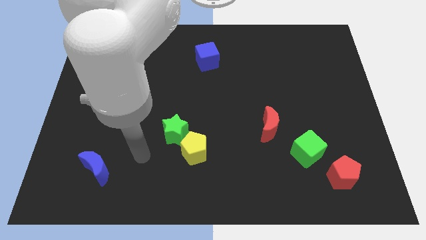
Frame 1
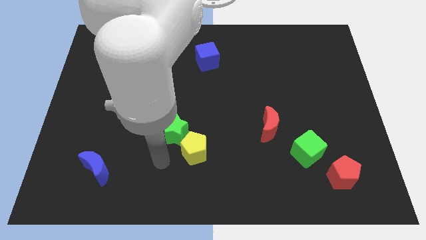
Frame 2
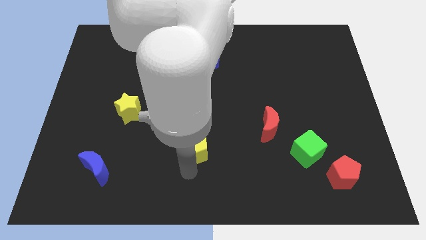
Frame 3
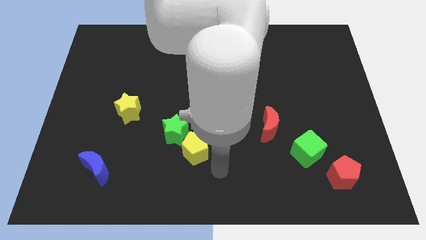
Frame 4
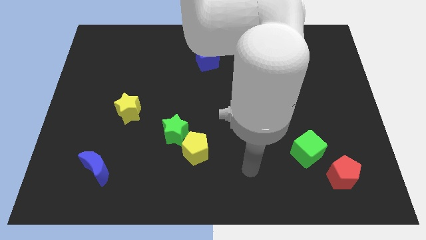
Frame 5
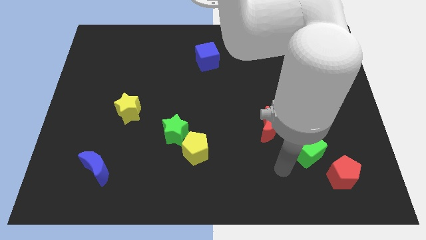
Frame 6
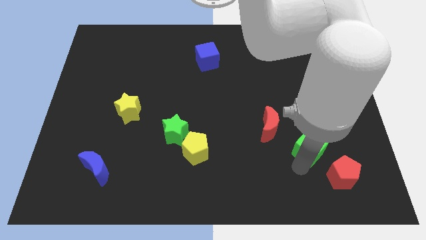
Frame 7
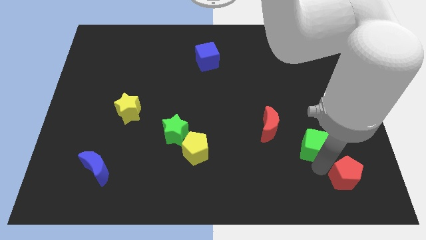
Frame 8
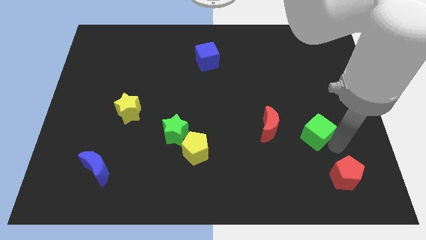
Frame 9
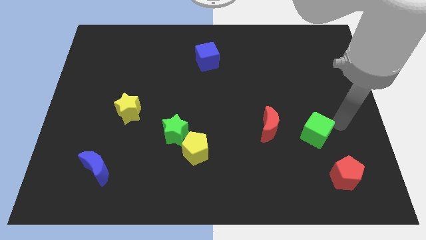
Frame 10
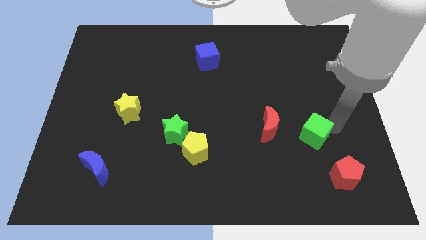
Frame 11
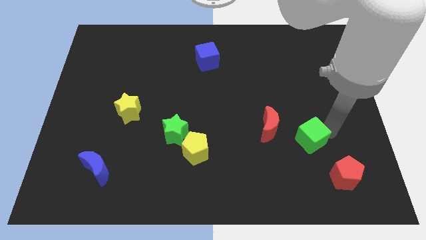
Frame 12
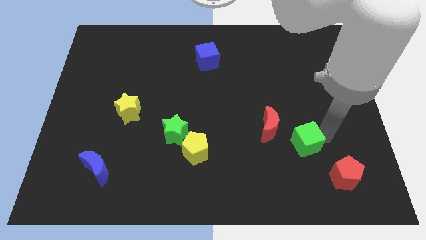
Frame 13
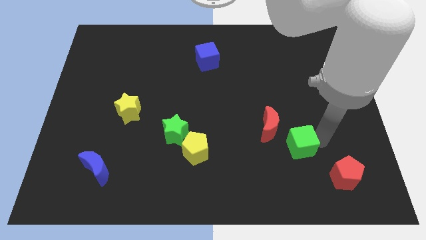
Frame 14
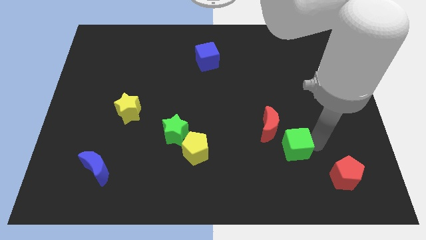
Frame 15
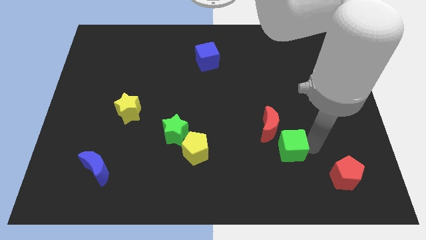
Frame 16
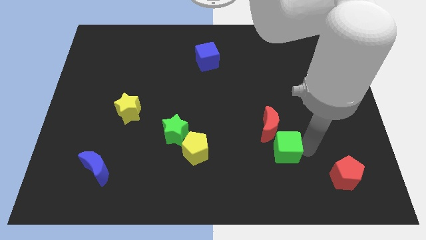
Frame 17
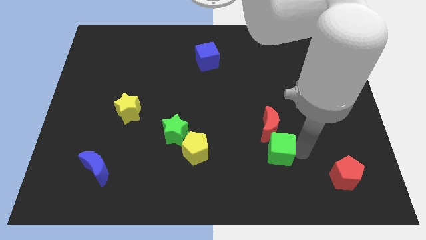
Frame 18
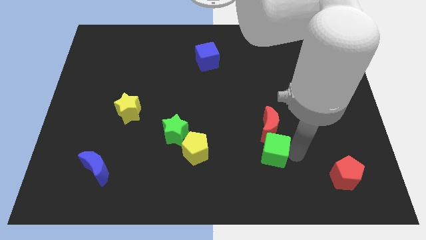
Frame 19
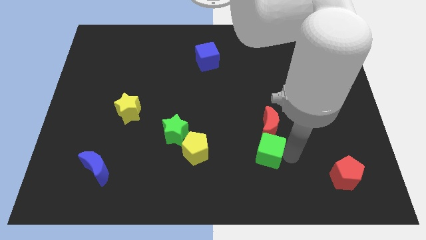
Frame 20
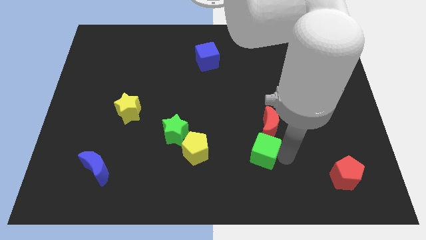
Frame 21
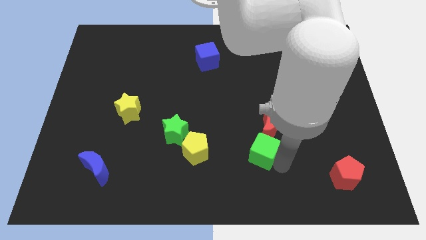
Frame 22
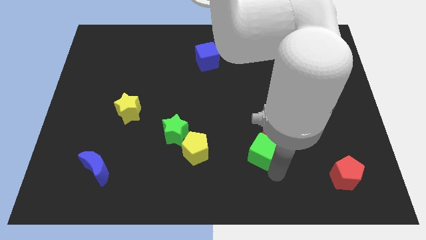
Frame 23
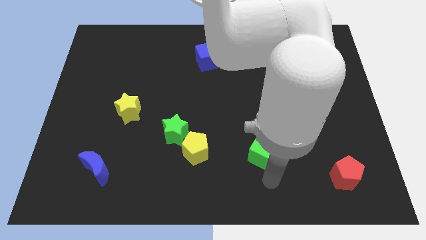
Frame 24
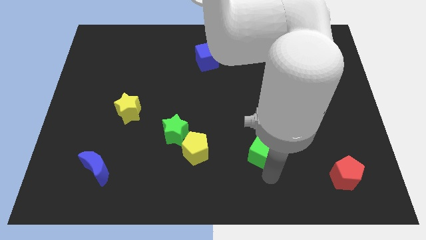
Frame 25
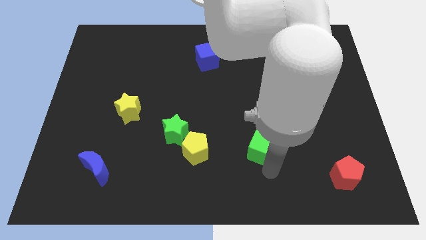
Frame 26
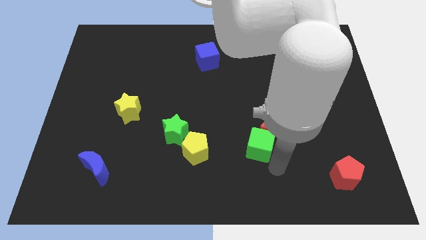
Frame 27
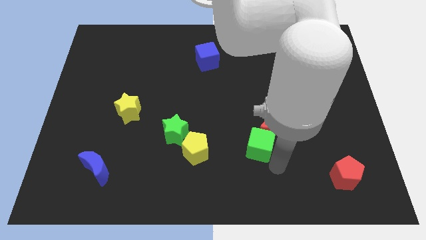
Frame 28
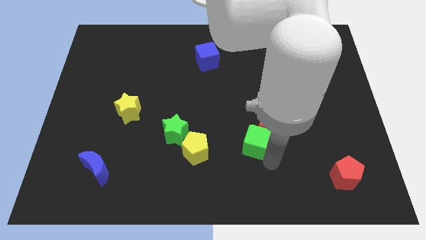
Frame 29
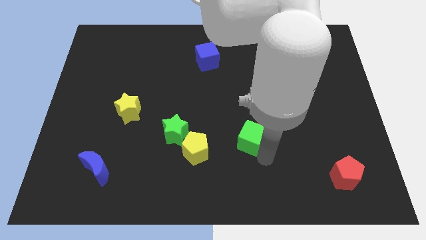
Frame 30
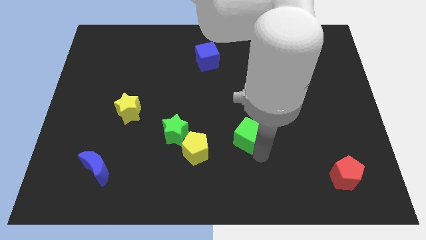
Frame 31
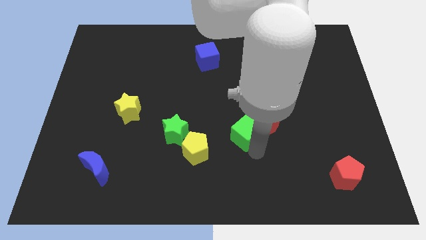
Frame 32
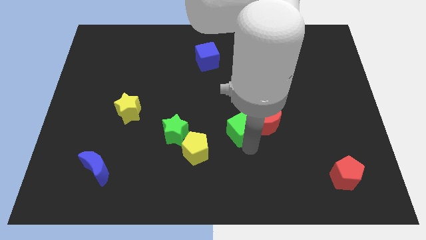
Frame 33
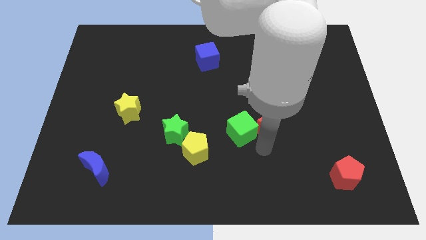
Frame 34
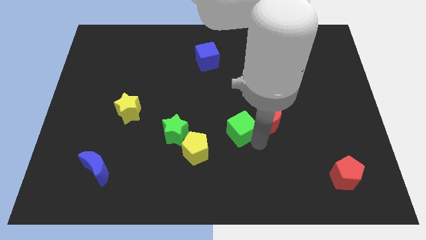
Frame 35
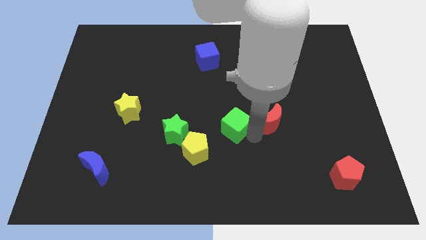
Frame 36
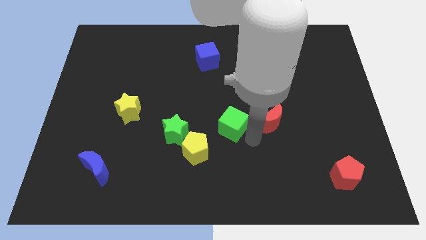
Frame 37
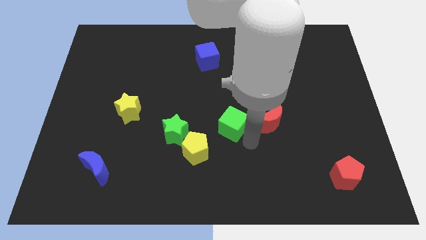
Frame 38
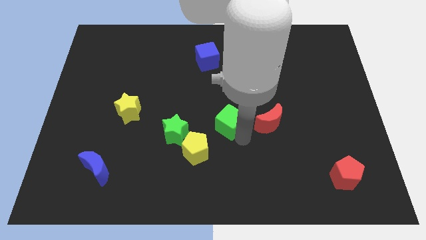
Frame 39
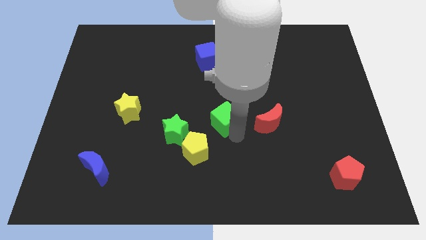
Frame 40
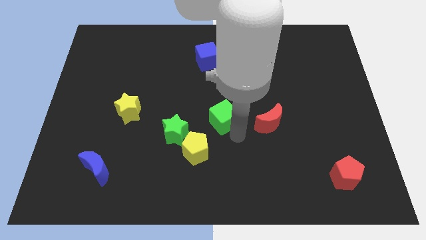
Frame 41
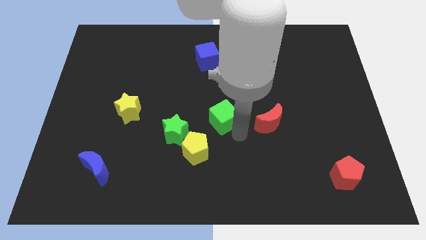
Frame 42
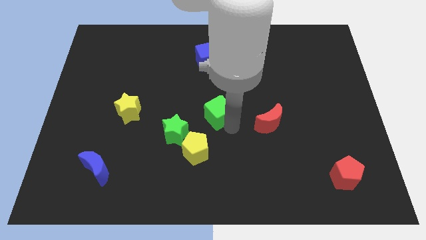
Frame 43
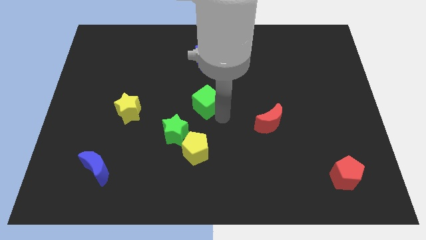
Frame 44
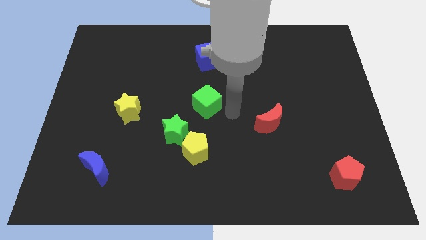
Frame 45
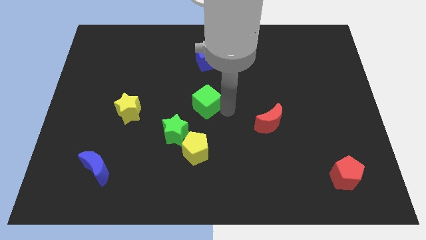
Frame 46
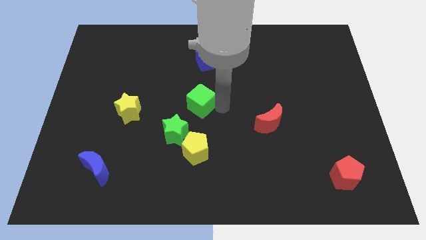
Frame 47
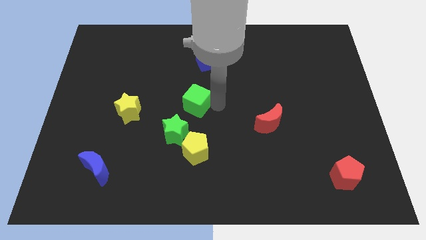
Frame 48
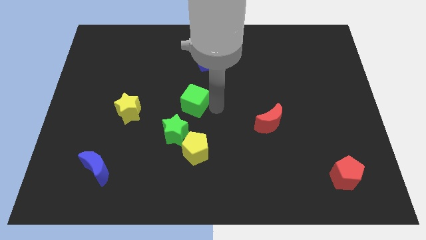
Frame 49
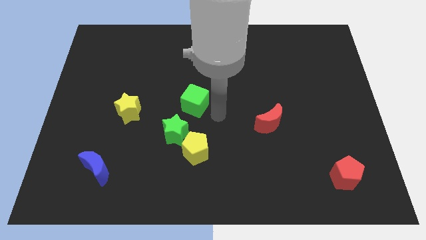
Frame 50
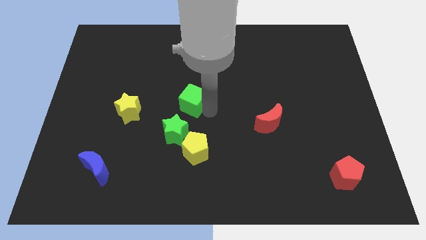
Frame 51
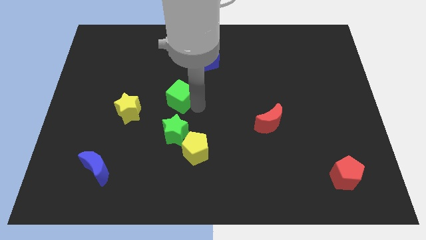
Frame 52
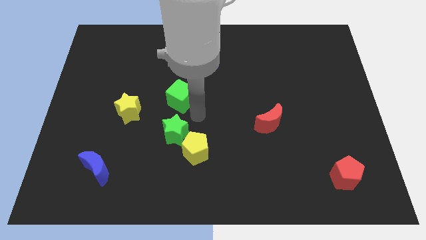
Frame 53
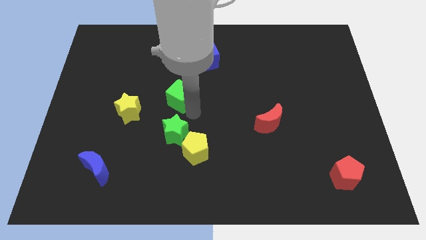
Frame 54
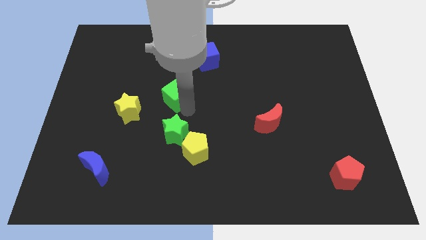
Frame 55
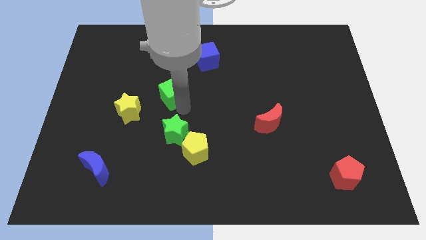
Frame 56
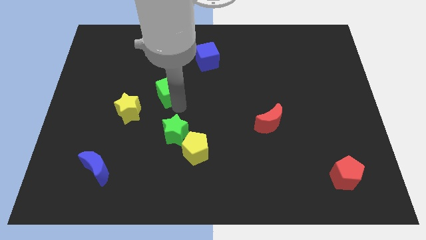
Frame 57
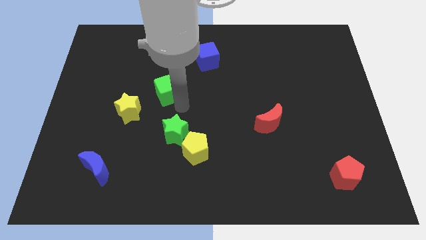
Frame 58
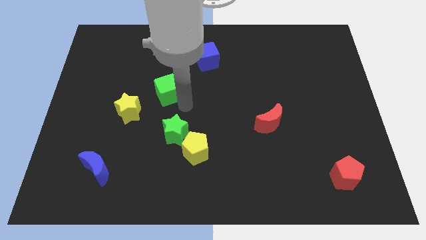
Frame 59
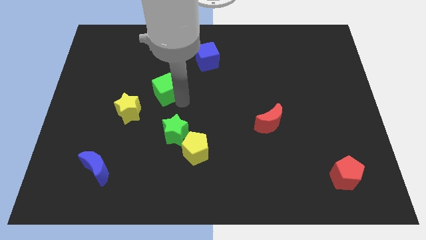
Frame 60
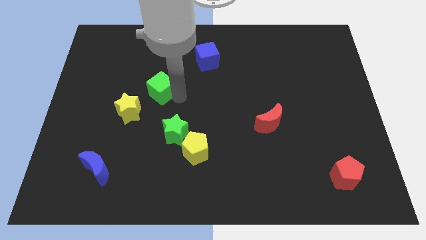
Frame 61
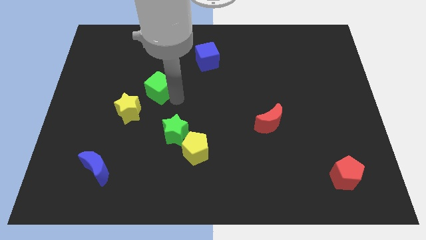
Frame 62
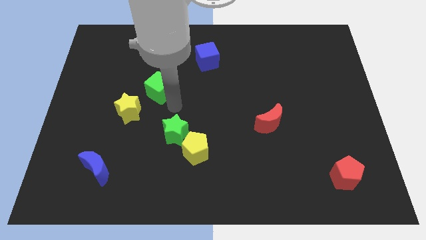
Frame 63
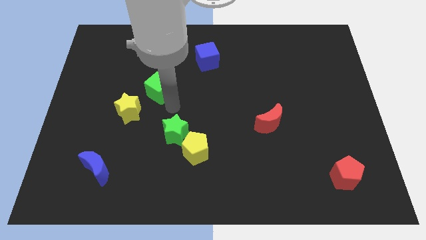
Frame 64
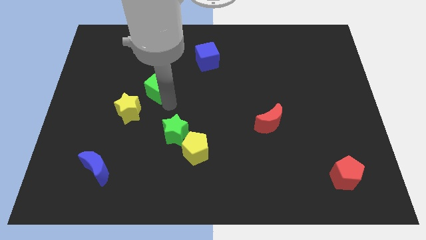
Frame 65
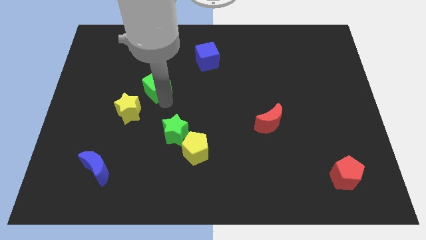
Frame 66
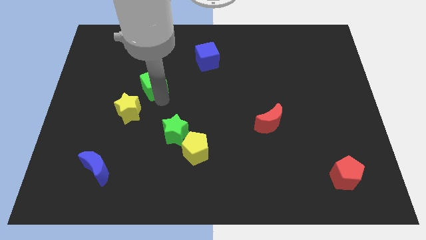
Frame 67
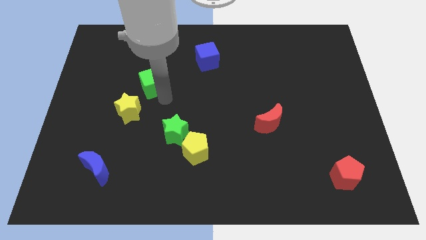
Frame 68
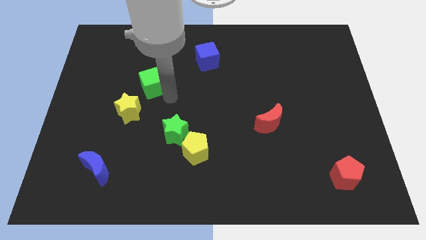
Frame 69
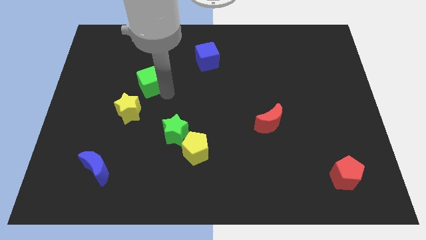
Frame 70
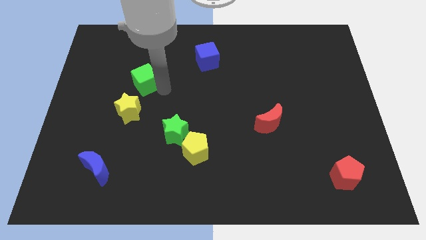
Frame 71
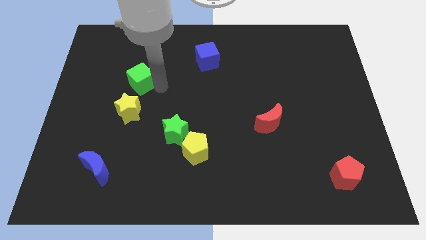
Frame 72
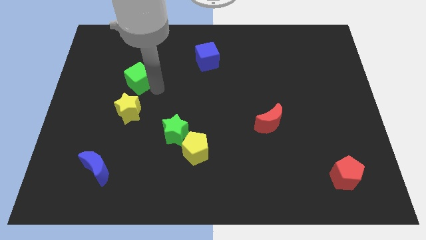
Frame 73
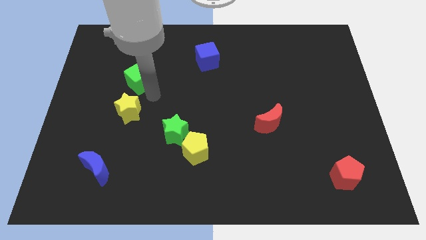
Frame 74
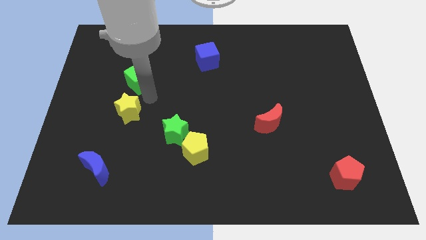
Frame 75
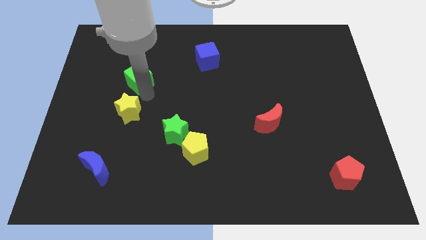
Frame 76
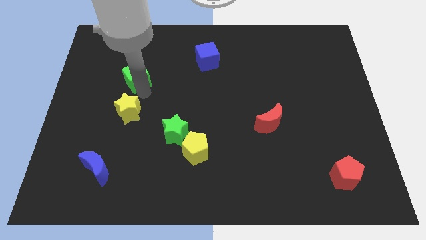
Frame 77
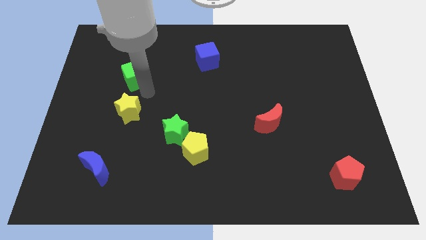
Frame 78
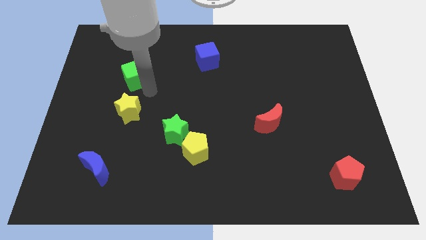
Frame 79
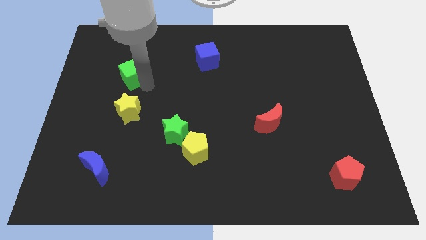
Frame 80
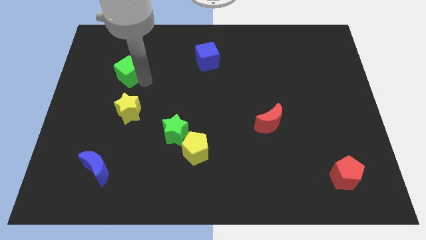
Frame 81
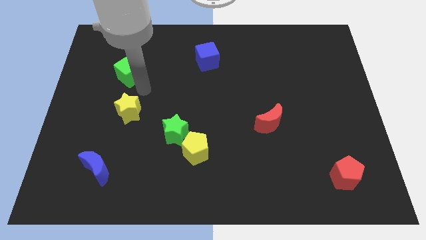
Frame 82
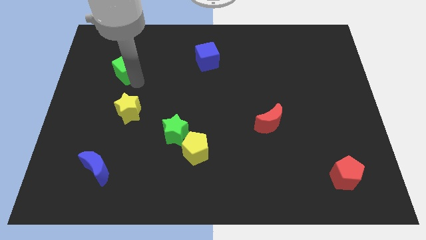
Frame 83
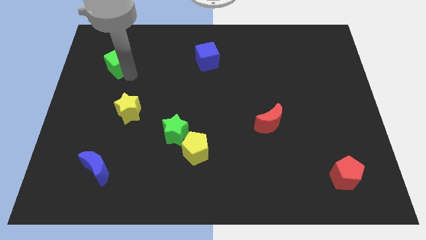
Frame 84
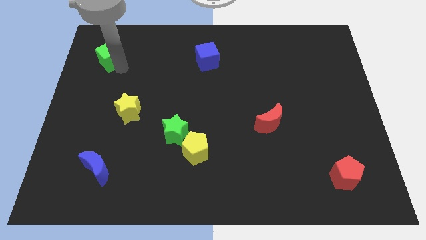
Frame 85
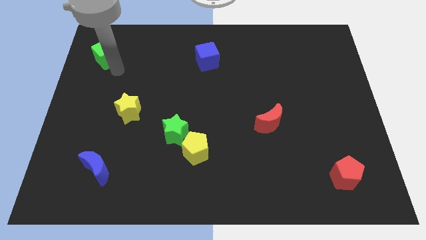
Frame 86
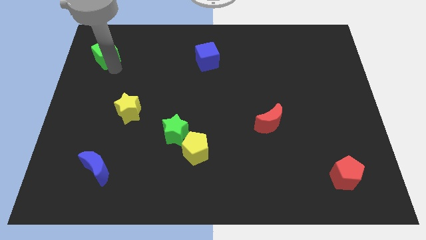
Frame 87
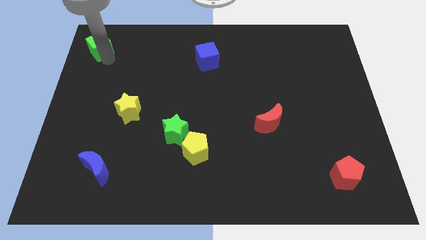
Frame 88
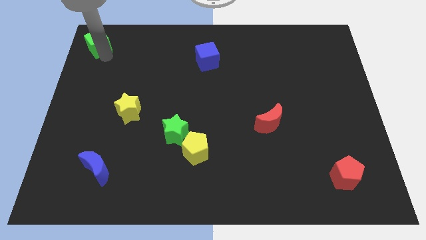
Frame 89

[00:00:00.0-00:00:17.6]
slide the green cube to the top left corner
